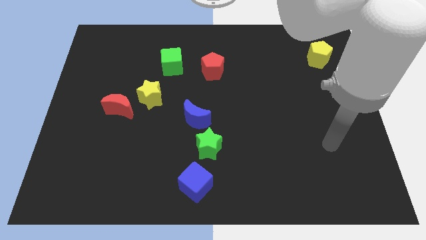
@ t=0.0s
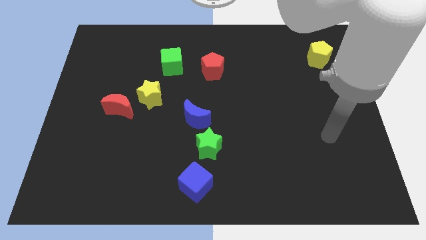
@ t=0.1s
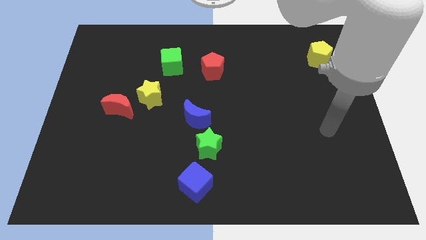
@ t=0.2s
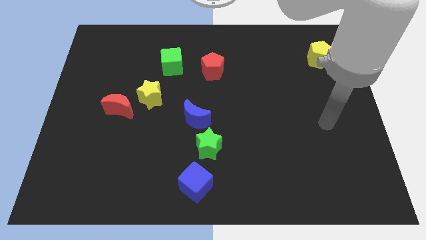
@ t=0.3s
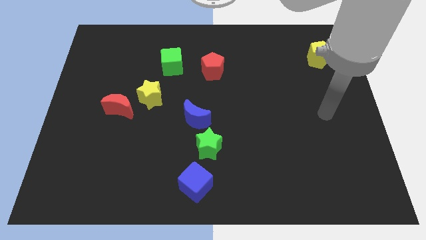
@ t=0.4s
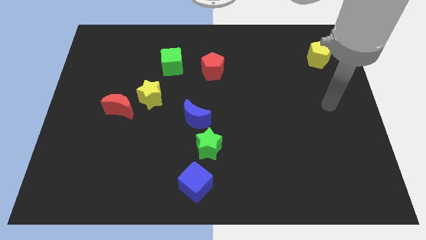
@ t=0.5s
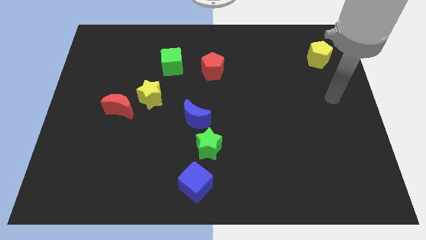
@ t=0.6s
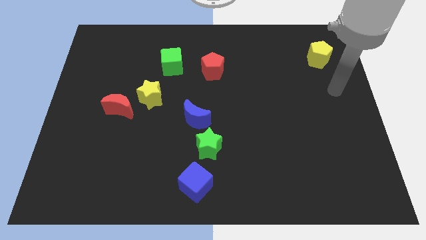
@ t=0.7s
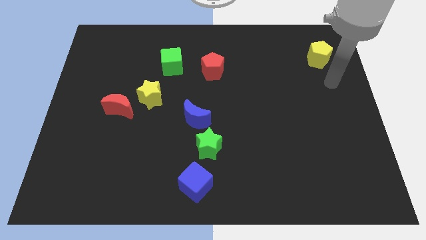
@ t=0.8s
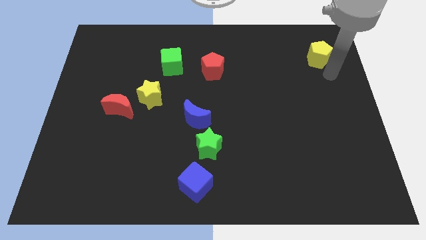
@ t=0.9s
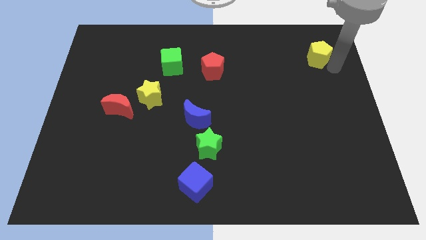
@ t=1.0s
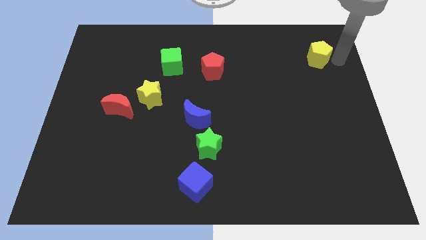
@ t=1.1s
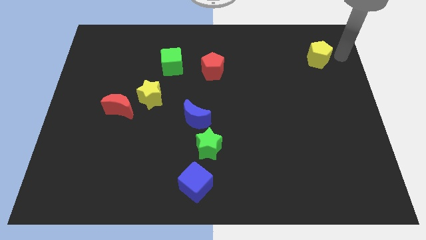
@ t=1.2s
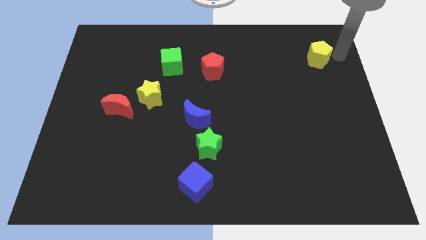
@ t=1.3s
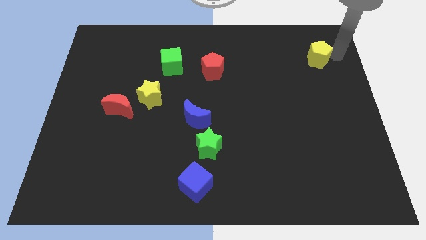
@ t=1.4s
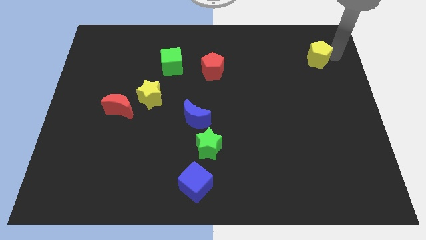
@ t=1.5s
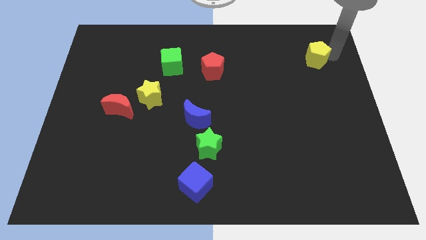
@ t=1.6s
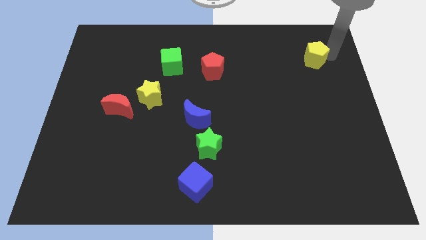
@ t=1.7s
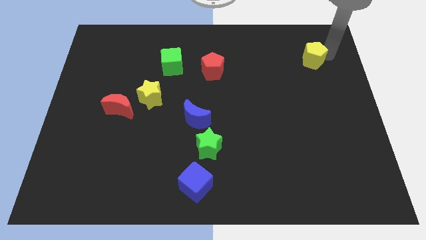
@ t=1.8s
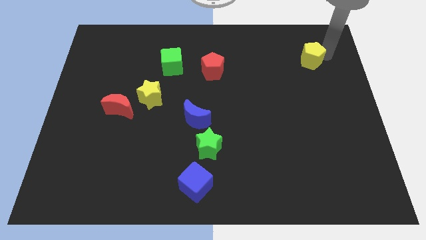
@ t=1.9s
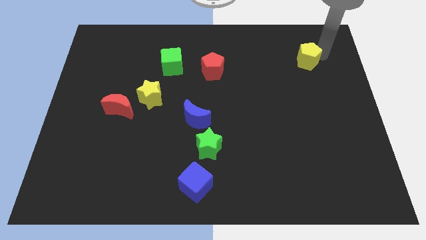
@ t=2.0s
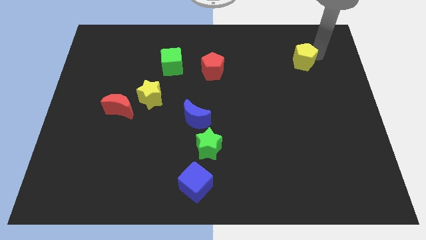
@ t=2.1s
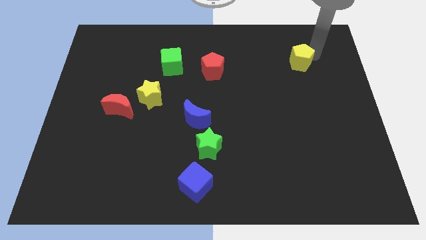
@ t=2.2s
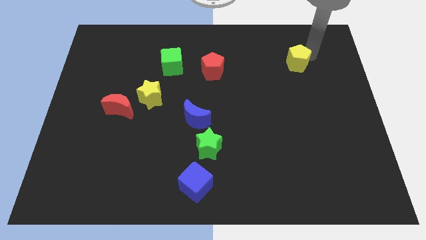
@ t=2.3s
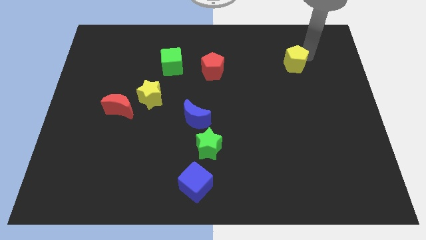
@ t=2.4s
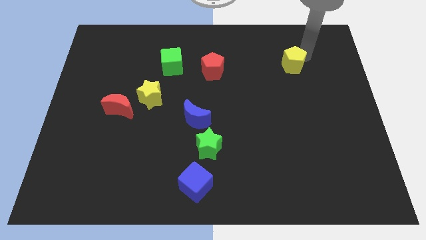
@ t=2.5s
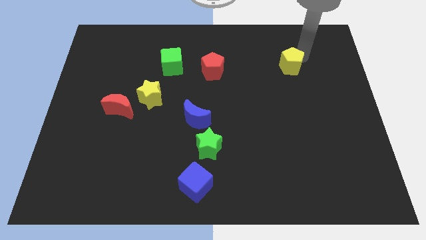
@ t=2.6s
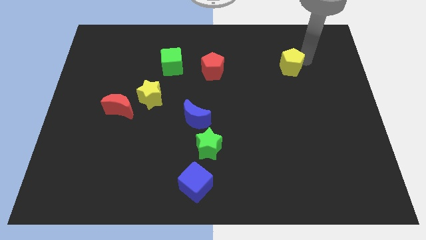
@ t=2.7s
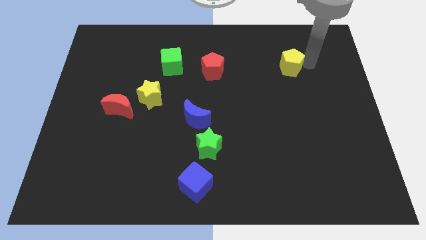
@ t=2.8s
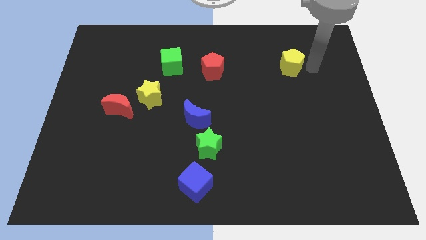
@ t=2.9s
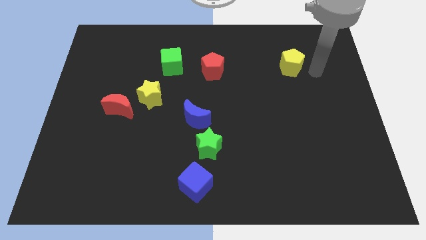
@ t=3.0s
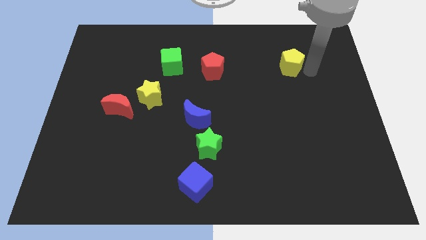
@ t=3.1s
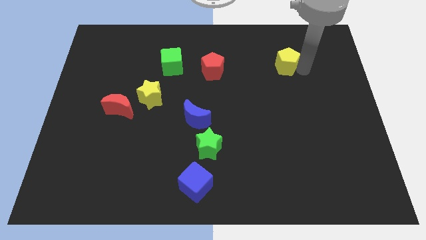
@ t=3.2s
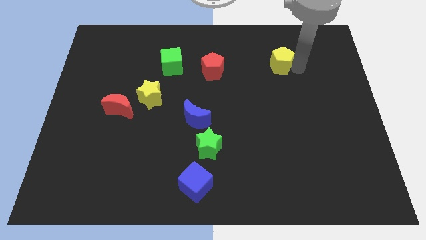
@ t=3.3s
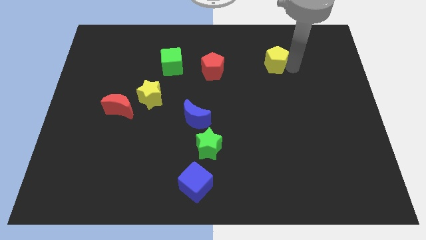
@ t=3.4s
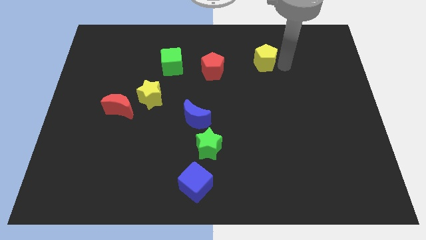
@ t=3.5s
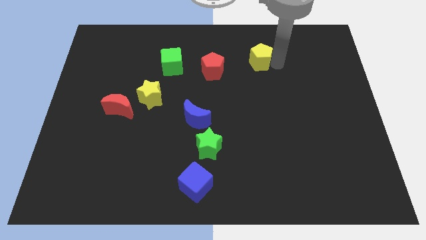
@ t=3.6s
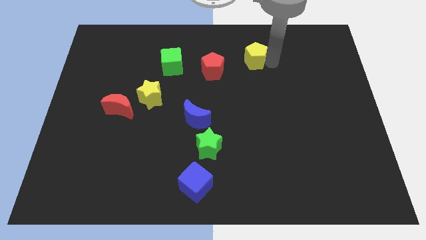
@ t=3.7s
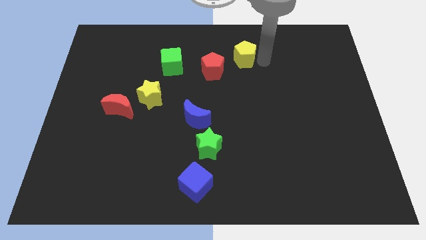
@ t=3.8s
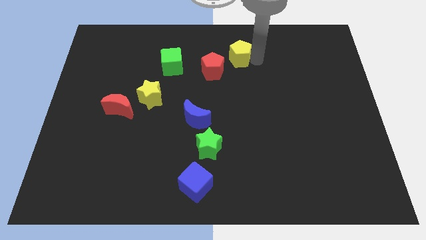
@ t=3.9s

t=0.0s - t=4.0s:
slide the yellow pentagon to the left

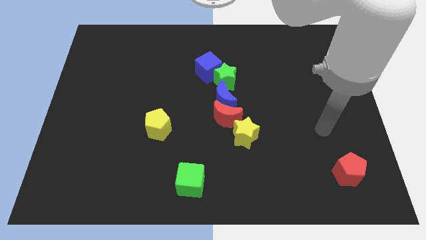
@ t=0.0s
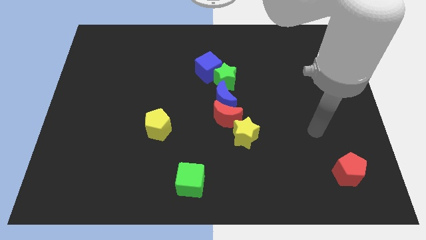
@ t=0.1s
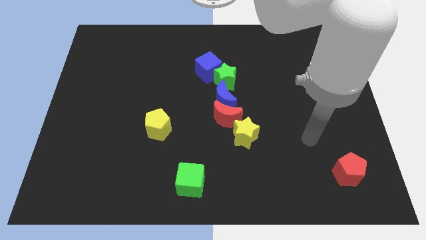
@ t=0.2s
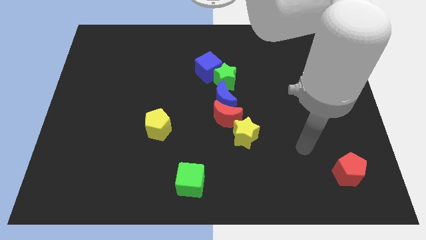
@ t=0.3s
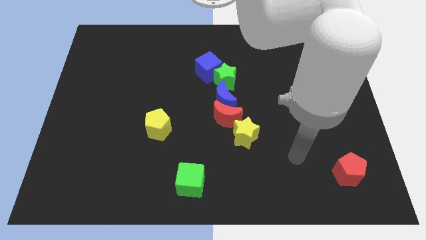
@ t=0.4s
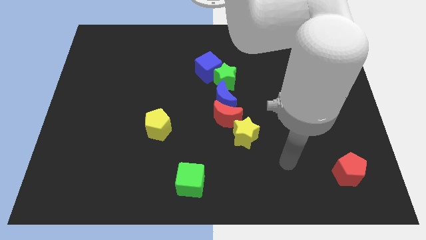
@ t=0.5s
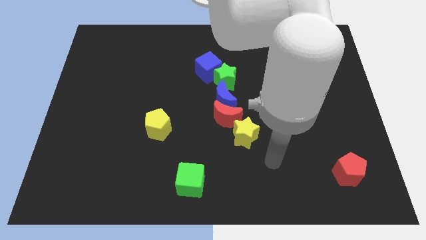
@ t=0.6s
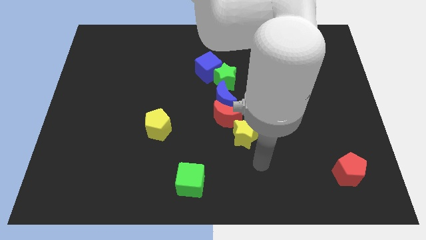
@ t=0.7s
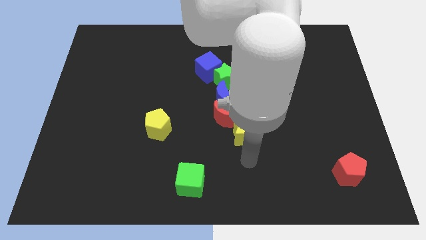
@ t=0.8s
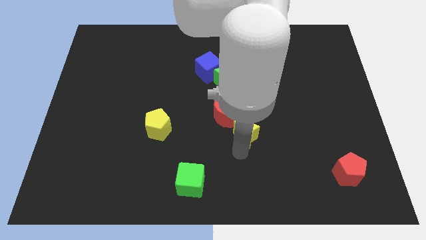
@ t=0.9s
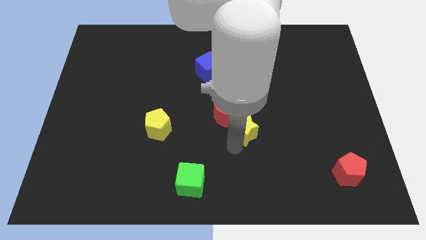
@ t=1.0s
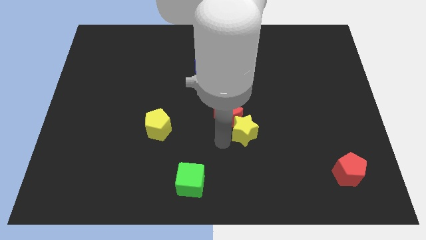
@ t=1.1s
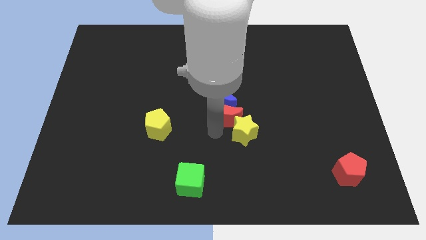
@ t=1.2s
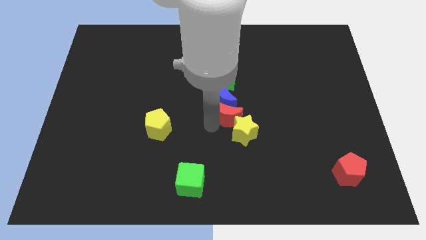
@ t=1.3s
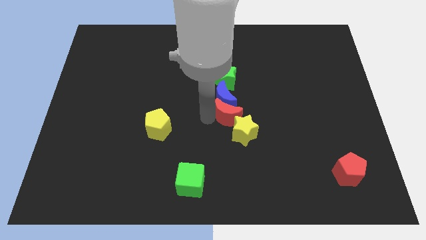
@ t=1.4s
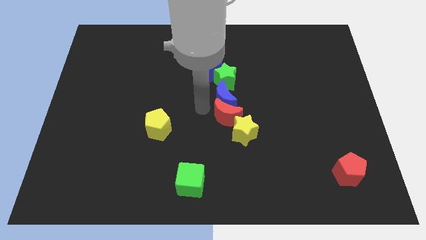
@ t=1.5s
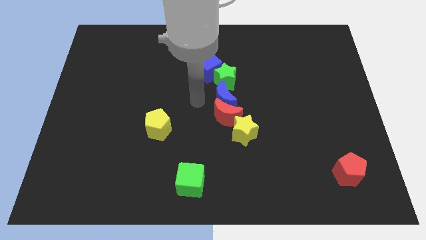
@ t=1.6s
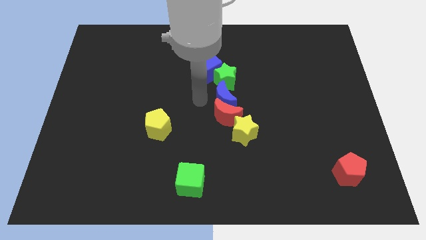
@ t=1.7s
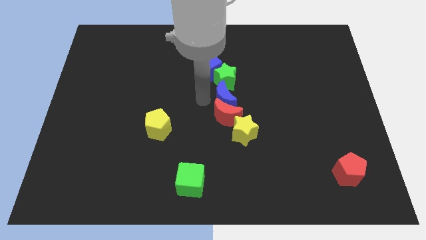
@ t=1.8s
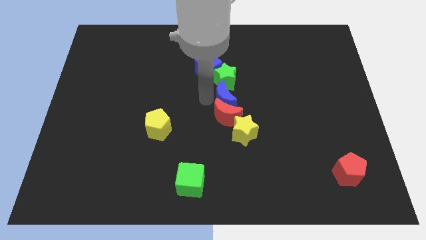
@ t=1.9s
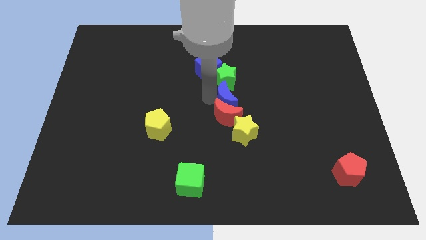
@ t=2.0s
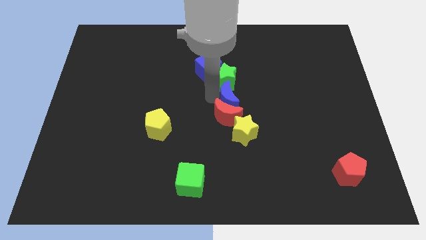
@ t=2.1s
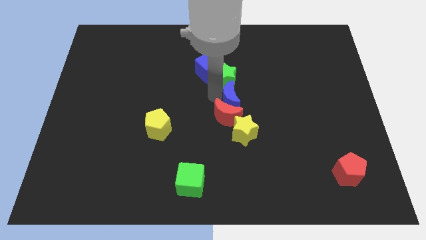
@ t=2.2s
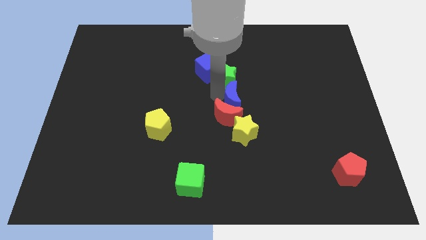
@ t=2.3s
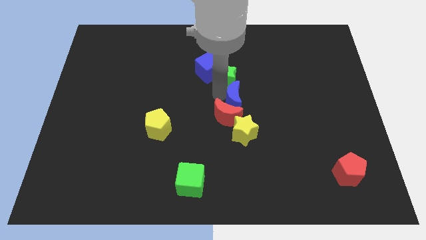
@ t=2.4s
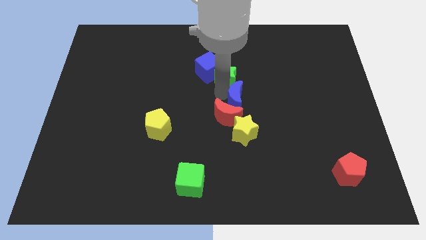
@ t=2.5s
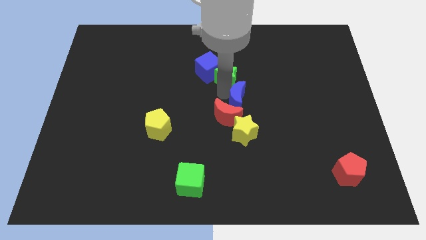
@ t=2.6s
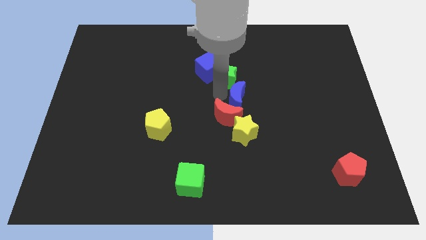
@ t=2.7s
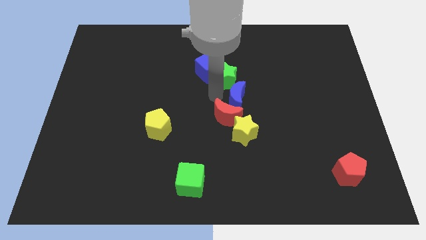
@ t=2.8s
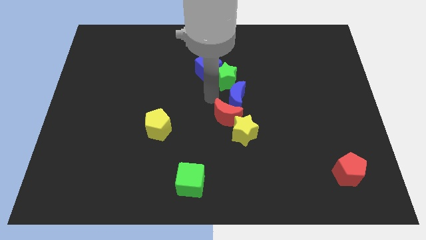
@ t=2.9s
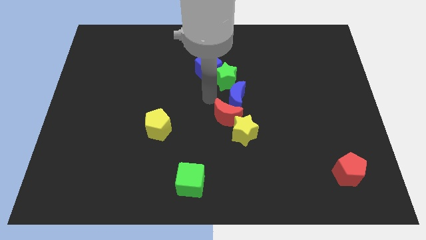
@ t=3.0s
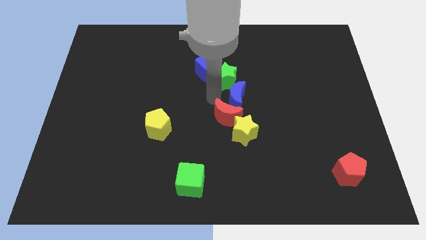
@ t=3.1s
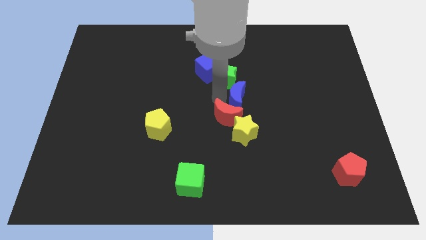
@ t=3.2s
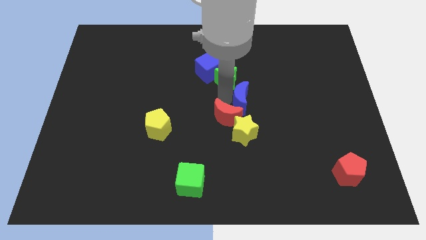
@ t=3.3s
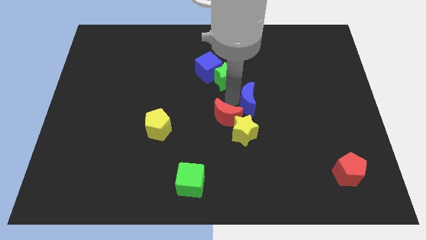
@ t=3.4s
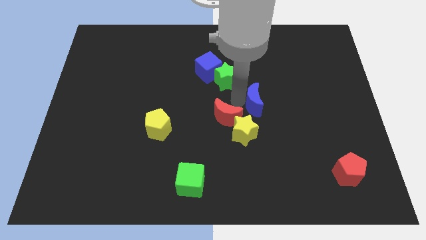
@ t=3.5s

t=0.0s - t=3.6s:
slide the blue moon slightly to the right

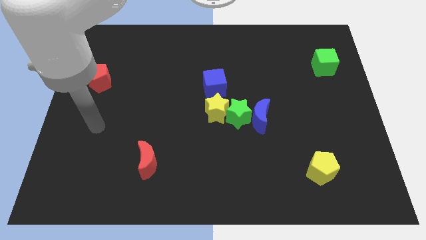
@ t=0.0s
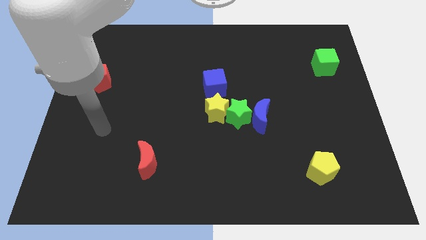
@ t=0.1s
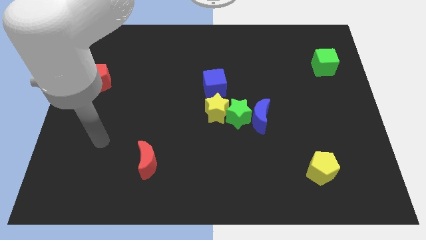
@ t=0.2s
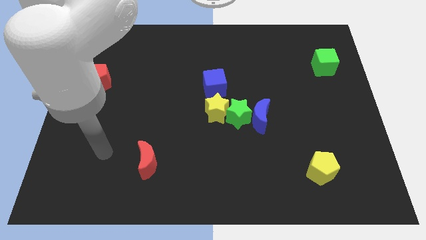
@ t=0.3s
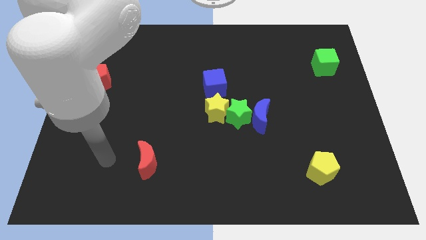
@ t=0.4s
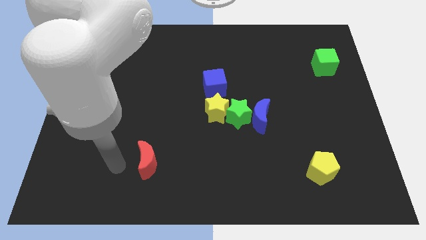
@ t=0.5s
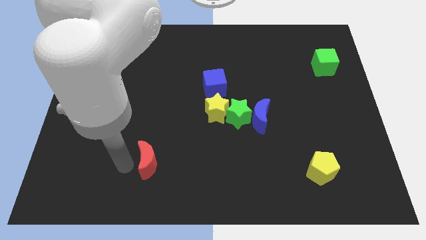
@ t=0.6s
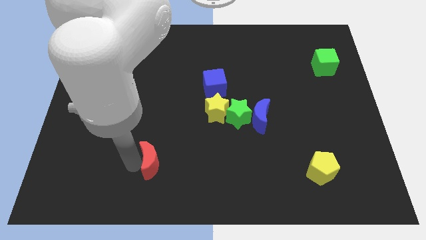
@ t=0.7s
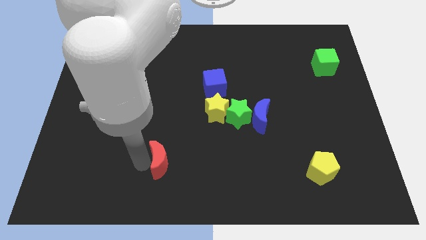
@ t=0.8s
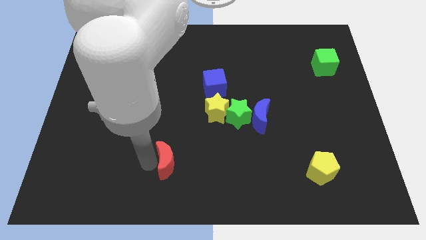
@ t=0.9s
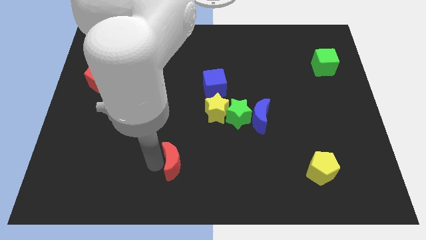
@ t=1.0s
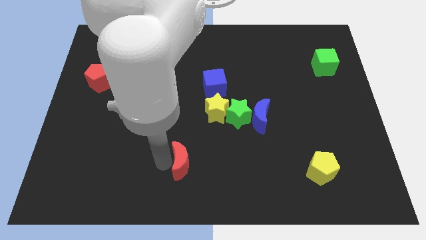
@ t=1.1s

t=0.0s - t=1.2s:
slide the red moon a little bit right
